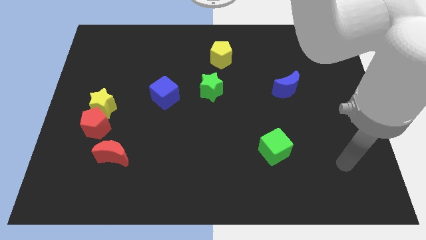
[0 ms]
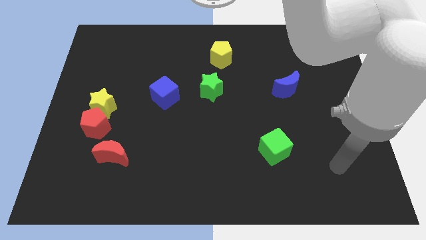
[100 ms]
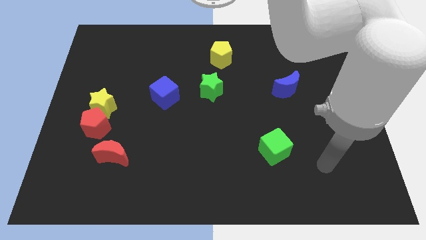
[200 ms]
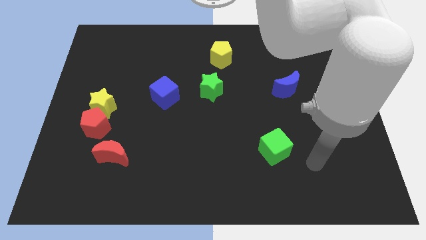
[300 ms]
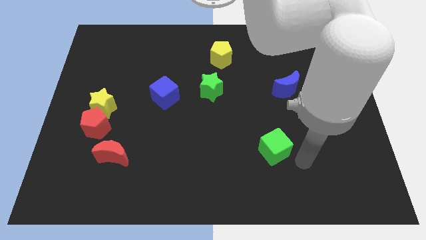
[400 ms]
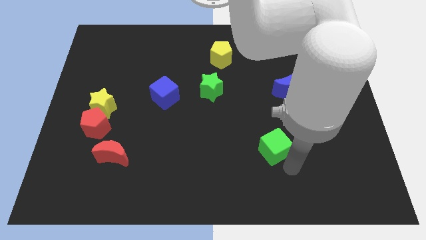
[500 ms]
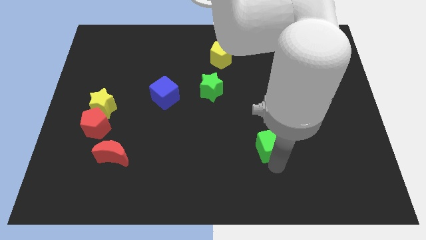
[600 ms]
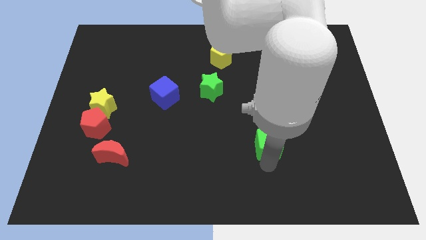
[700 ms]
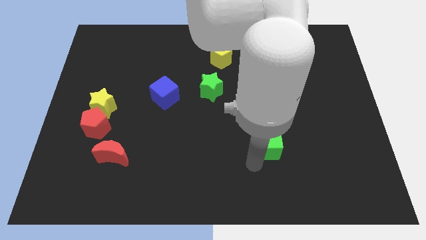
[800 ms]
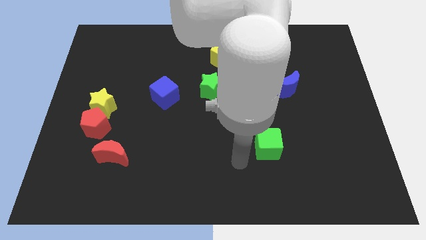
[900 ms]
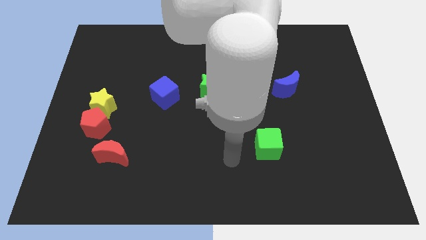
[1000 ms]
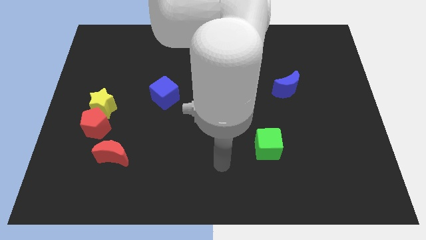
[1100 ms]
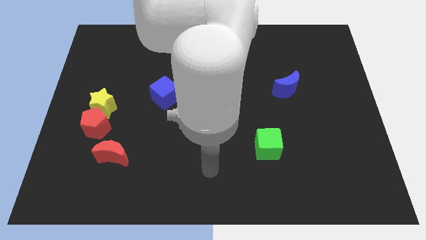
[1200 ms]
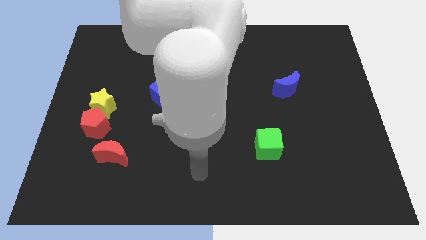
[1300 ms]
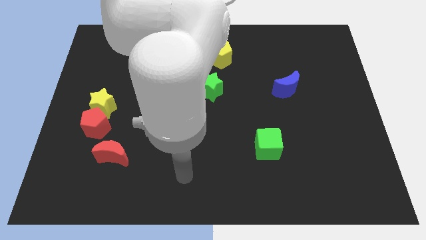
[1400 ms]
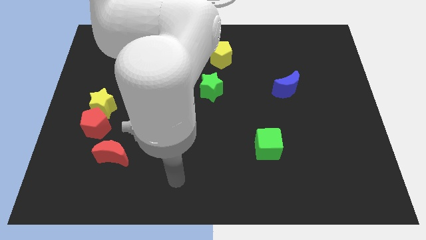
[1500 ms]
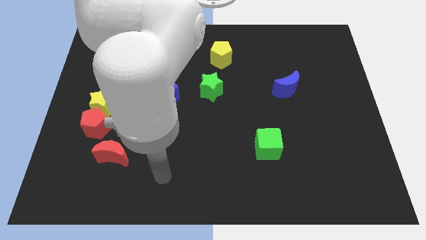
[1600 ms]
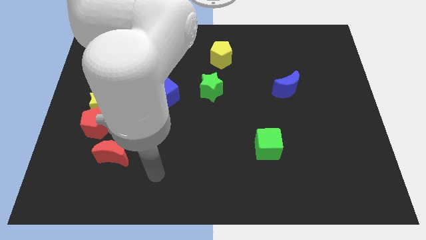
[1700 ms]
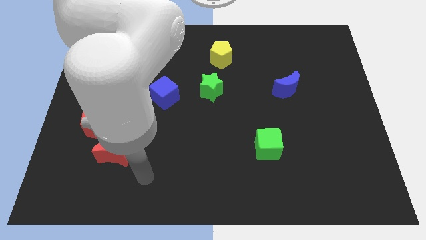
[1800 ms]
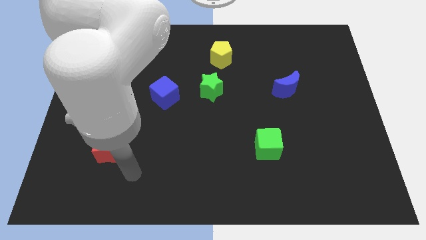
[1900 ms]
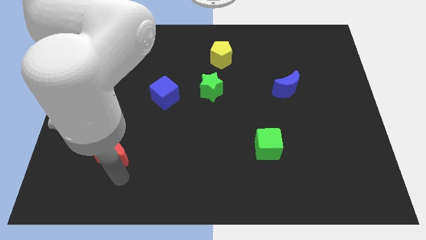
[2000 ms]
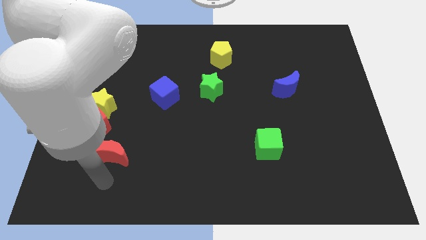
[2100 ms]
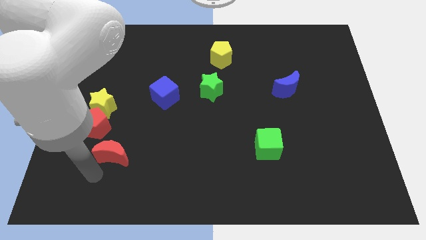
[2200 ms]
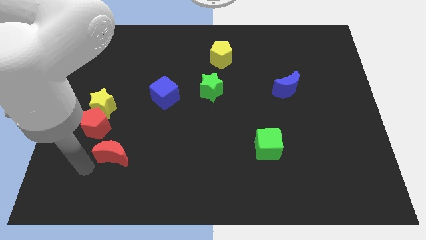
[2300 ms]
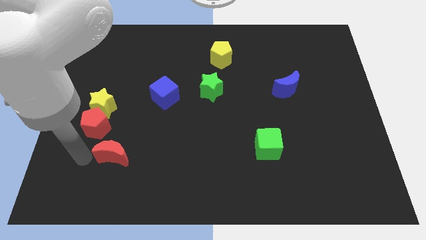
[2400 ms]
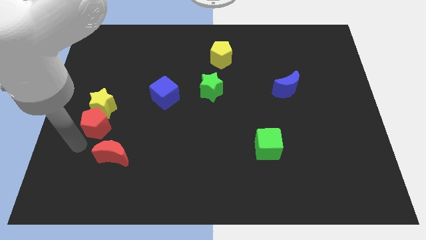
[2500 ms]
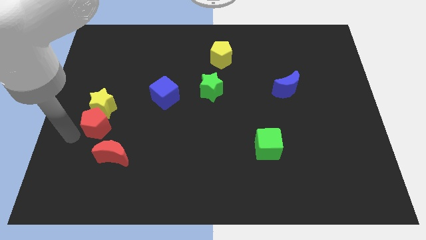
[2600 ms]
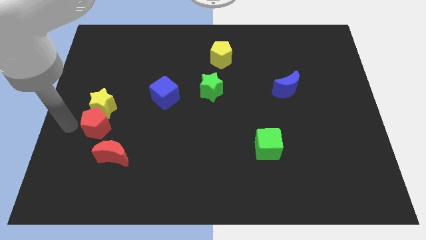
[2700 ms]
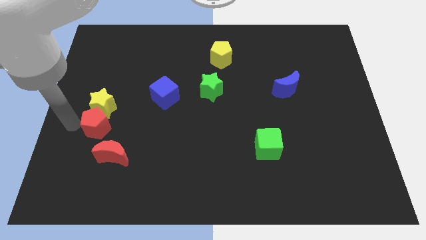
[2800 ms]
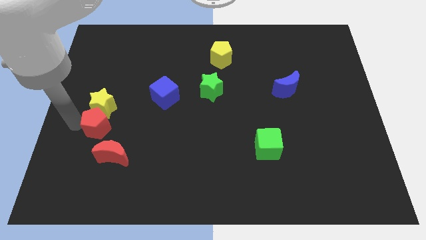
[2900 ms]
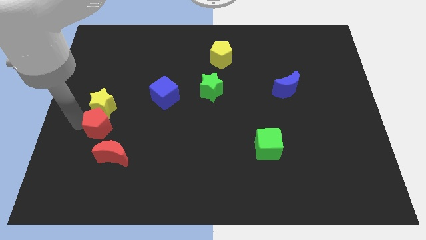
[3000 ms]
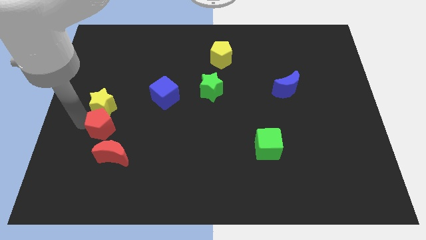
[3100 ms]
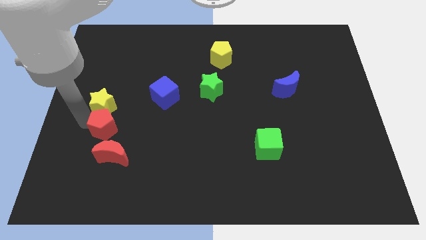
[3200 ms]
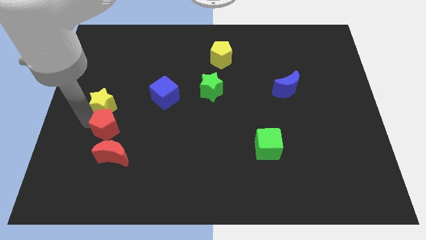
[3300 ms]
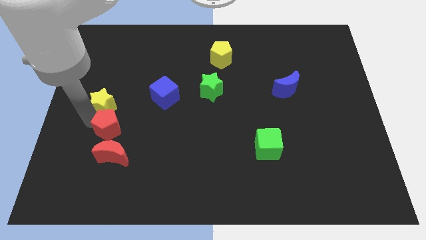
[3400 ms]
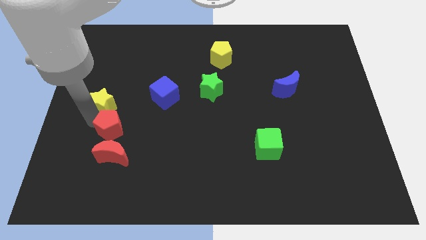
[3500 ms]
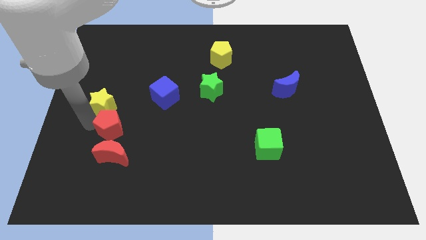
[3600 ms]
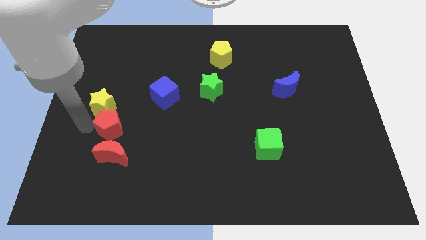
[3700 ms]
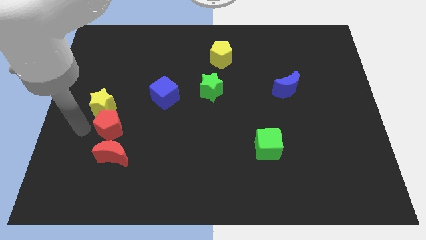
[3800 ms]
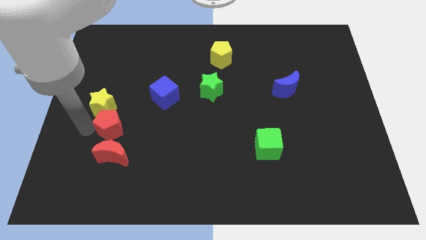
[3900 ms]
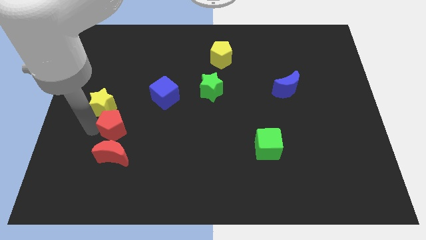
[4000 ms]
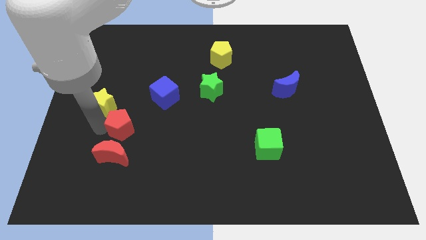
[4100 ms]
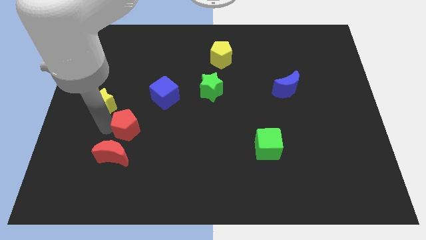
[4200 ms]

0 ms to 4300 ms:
slide the red pentagon a little right

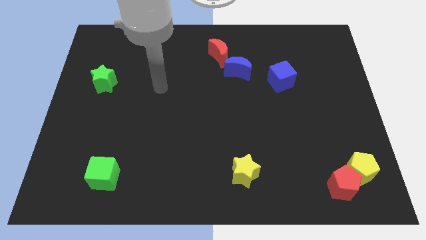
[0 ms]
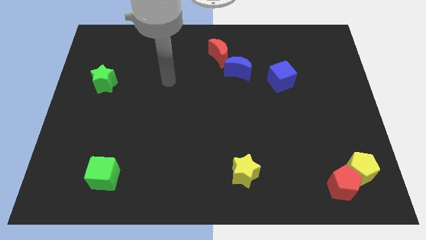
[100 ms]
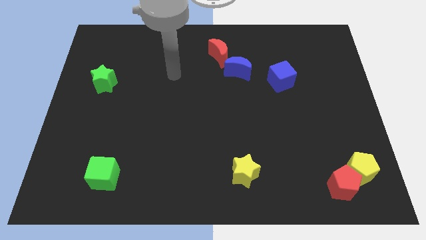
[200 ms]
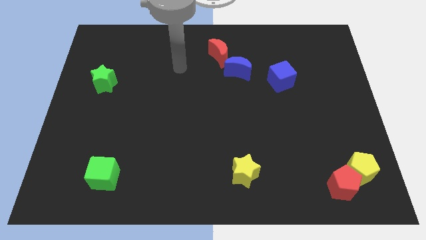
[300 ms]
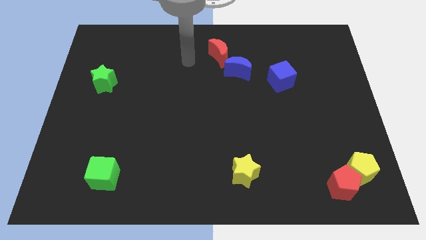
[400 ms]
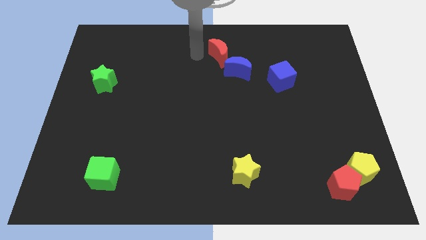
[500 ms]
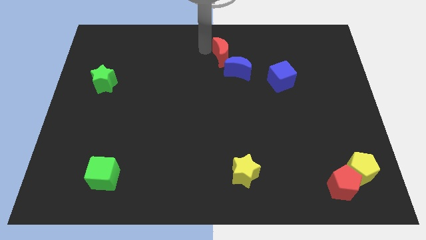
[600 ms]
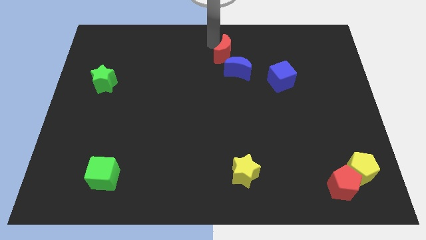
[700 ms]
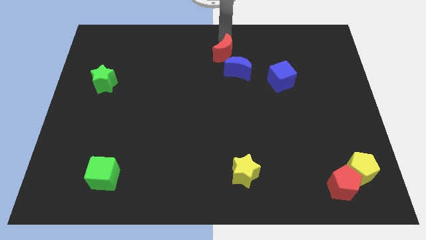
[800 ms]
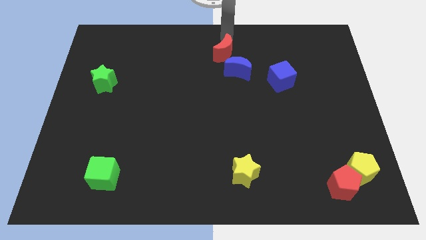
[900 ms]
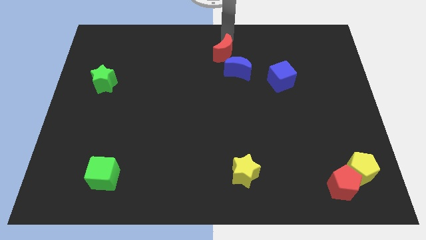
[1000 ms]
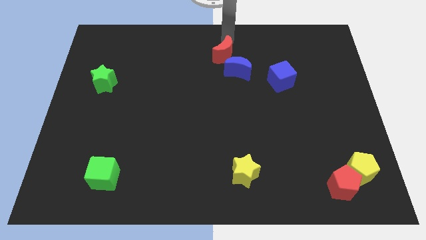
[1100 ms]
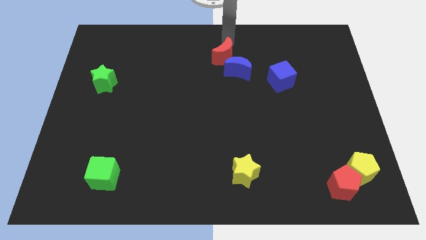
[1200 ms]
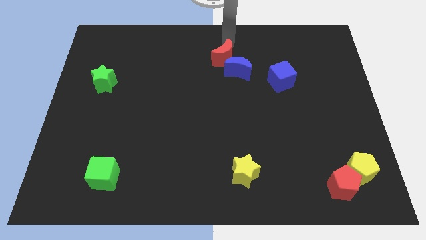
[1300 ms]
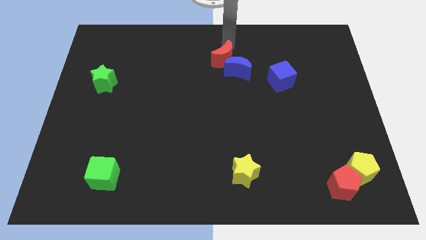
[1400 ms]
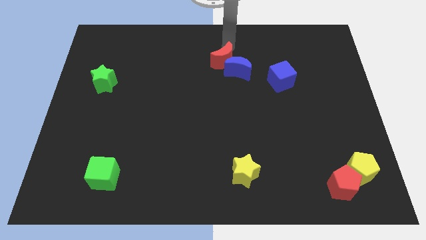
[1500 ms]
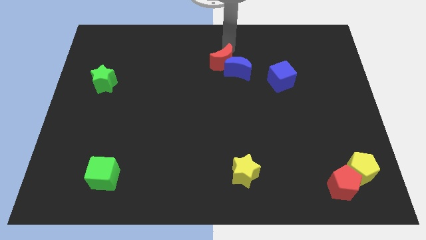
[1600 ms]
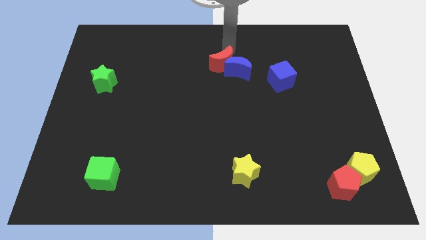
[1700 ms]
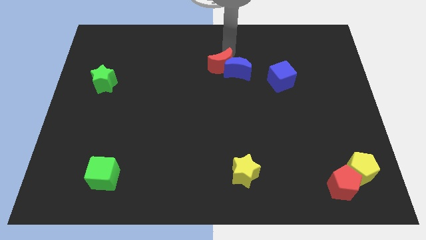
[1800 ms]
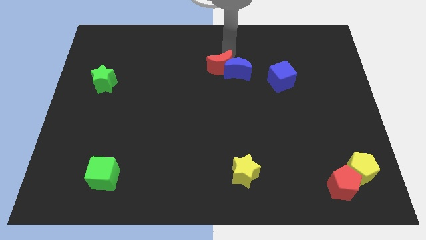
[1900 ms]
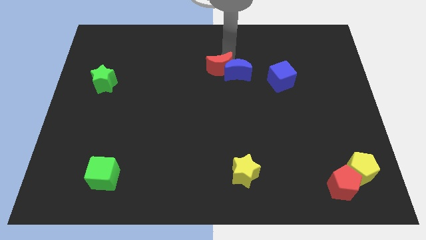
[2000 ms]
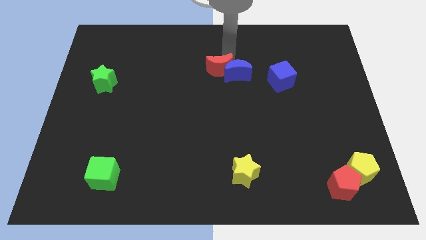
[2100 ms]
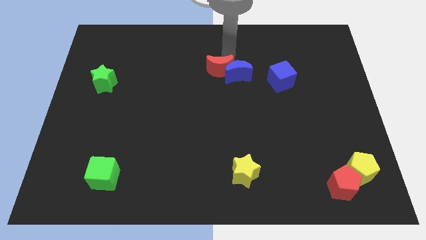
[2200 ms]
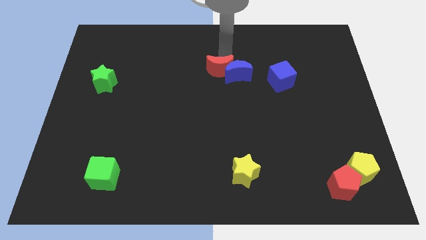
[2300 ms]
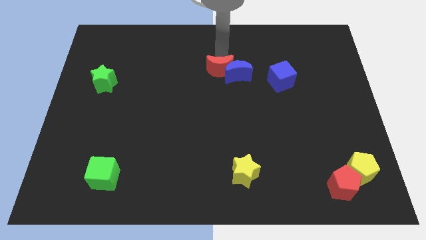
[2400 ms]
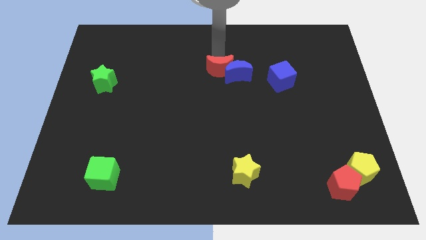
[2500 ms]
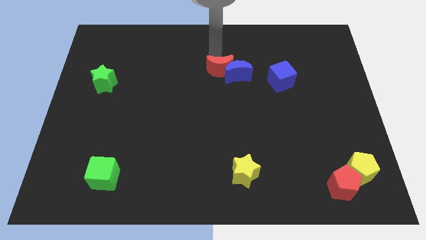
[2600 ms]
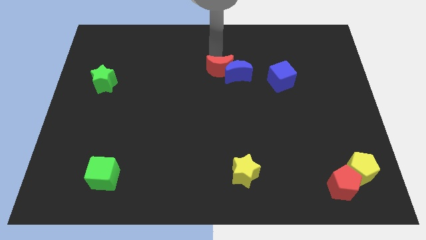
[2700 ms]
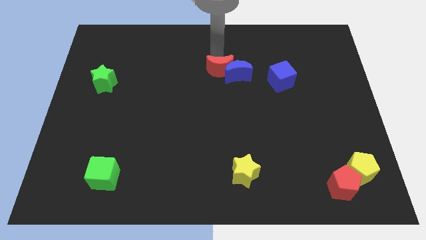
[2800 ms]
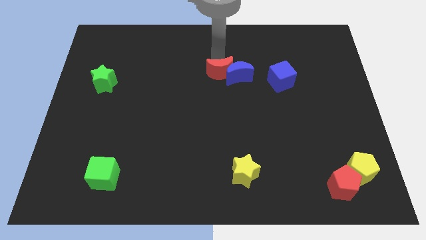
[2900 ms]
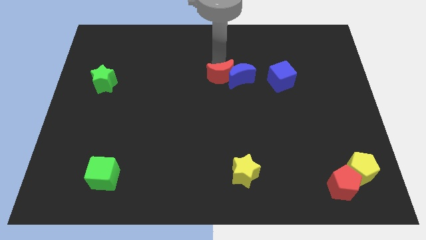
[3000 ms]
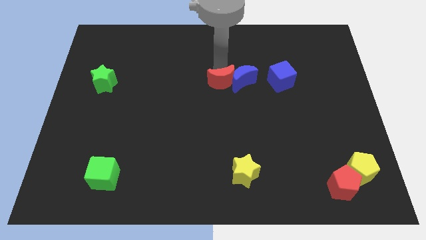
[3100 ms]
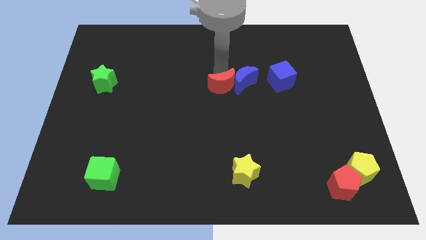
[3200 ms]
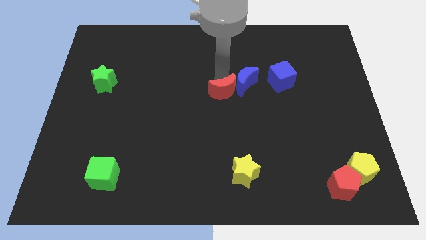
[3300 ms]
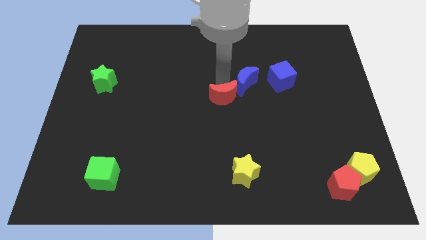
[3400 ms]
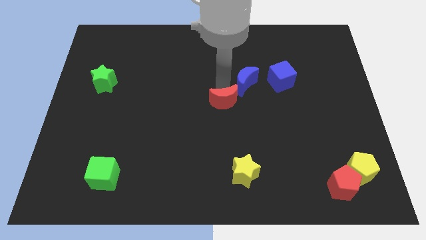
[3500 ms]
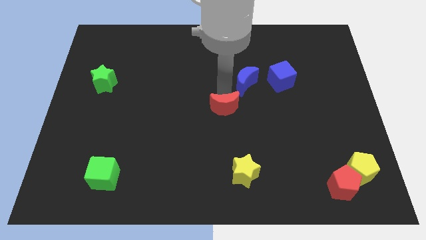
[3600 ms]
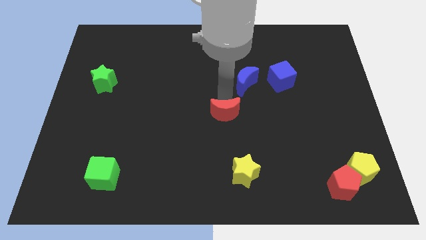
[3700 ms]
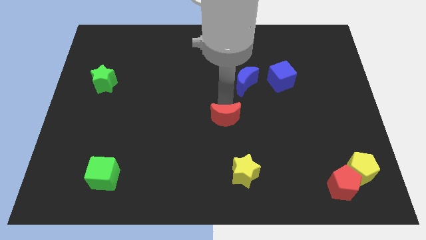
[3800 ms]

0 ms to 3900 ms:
push the red moon downwards
